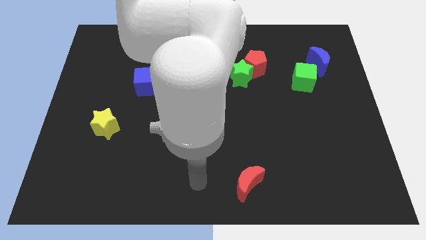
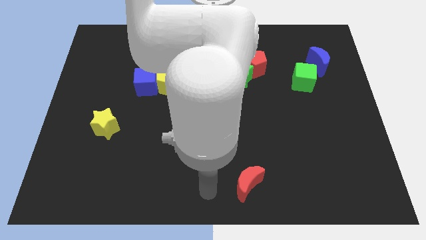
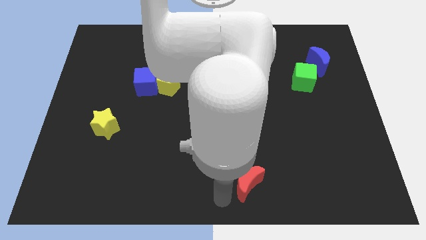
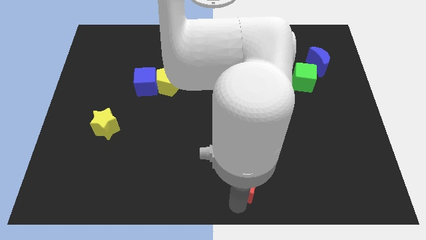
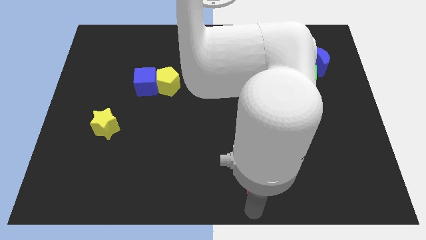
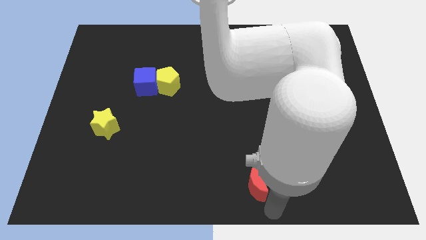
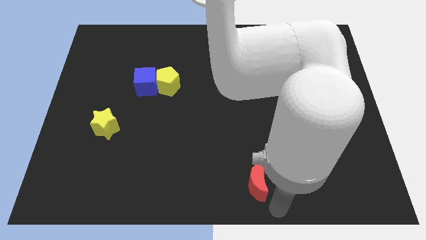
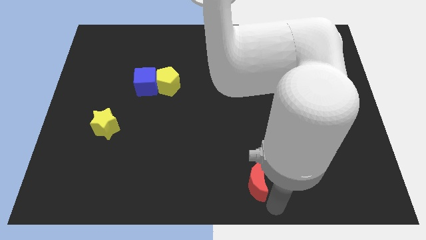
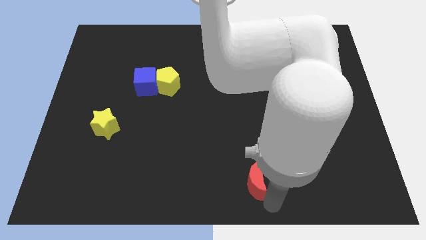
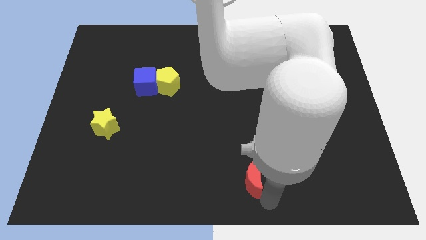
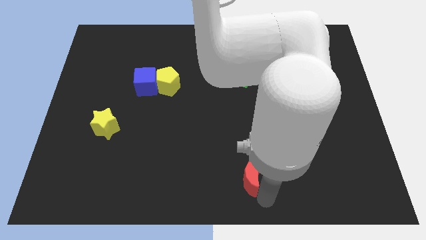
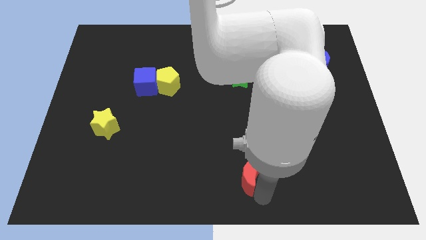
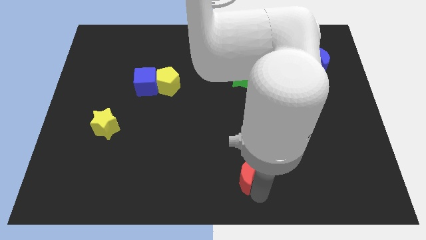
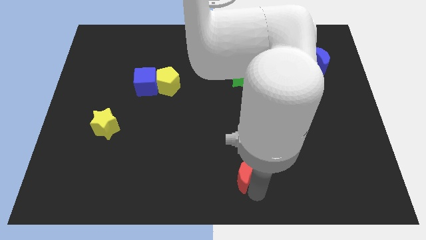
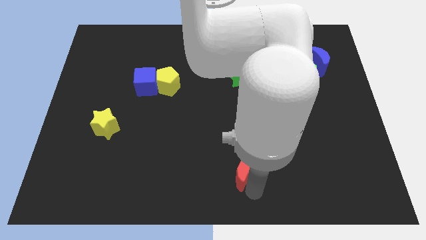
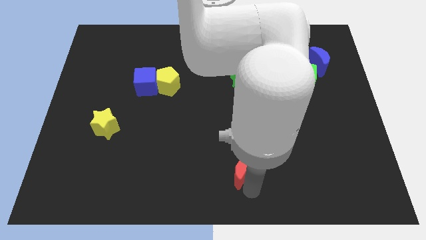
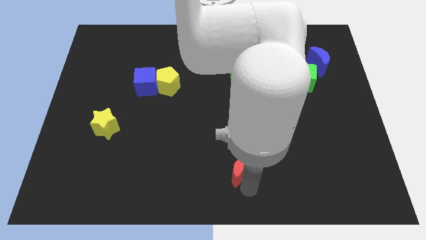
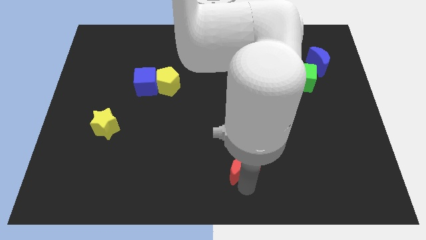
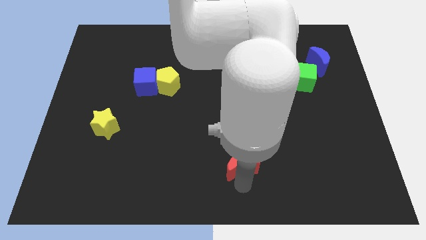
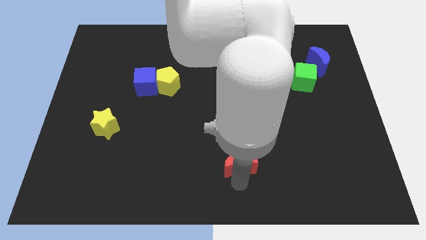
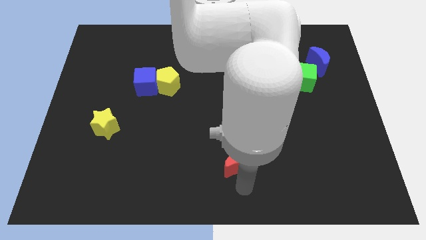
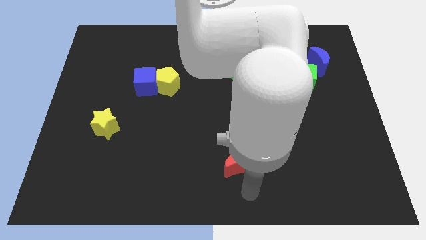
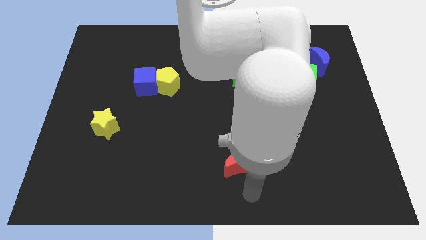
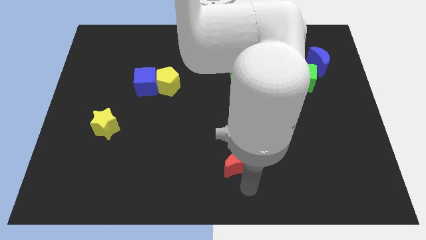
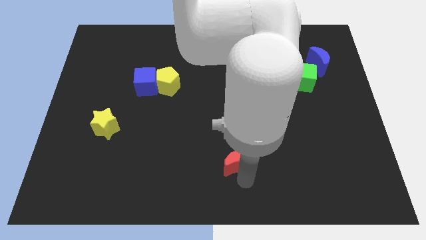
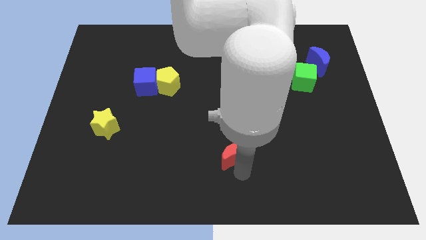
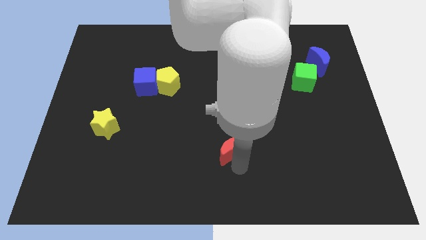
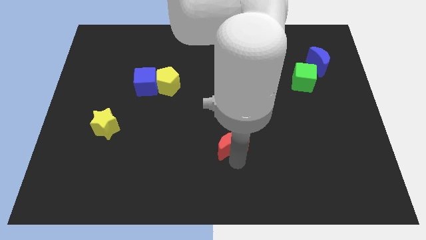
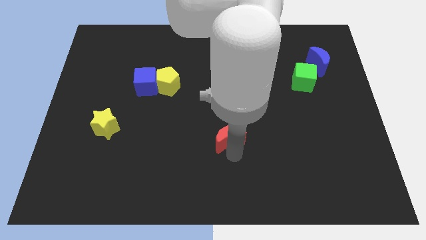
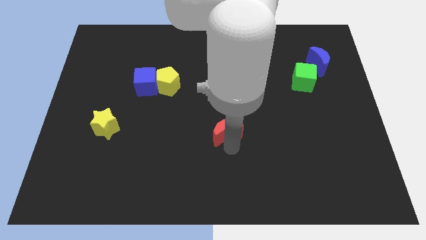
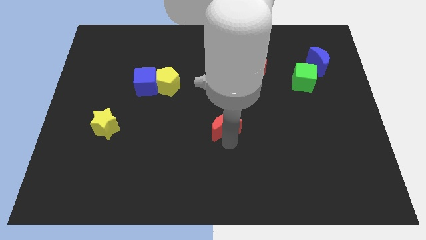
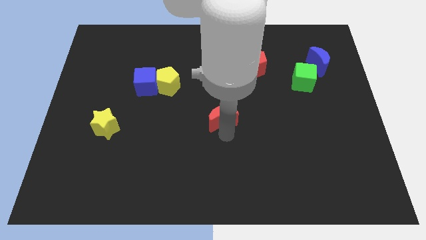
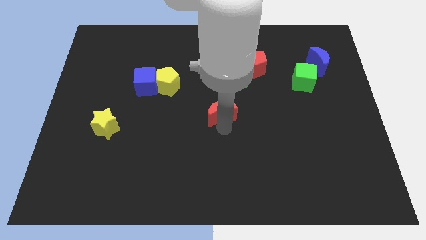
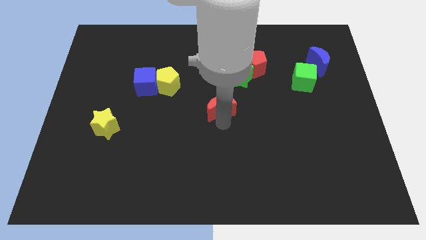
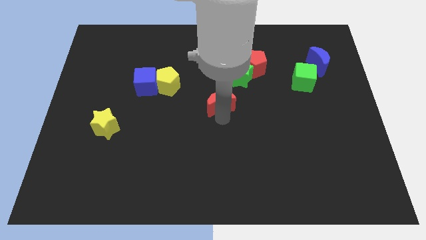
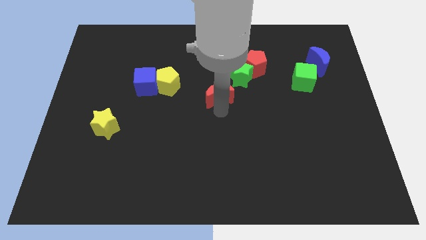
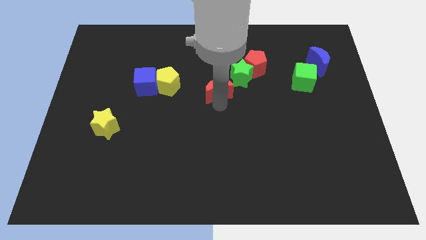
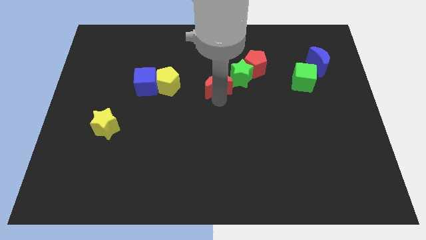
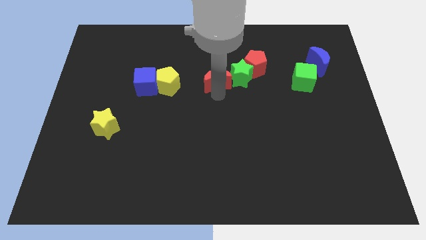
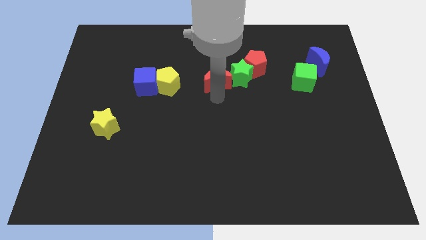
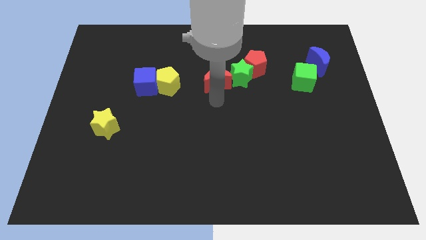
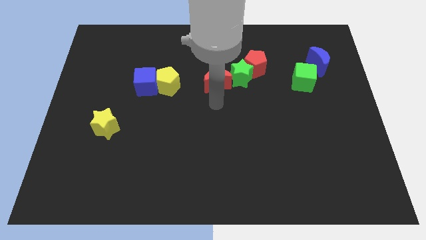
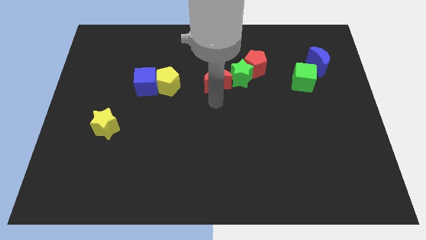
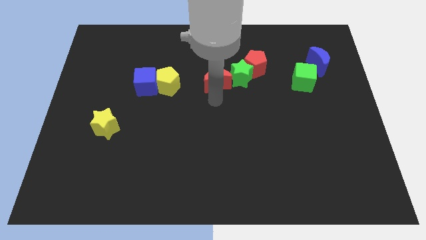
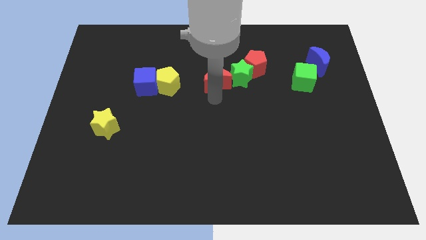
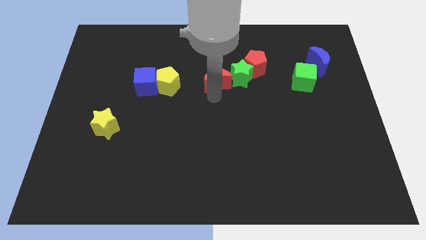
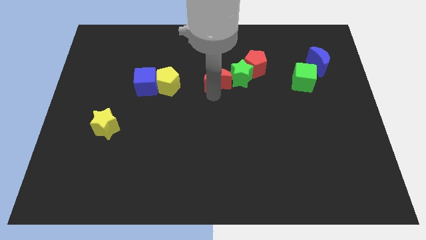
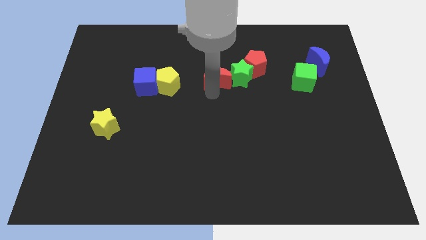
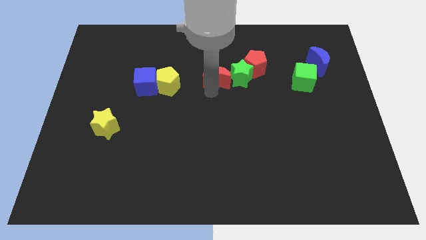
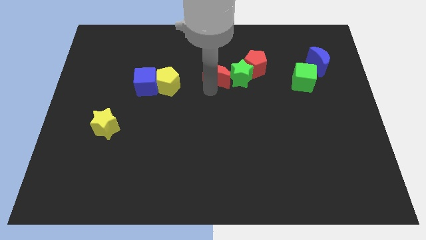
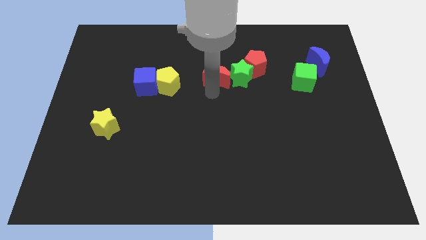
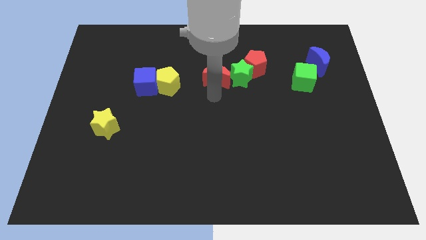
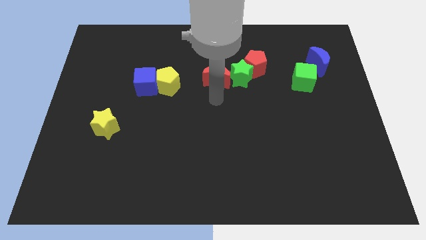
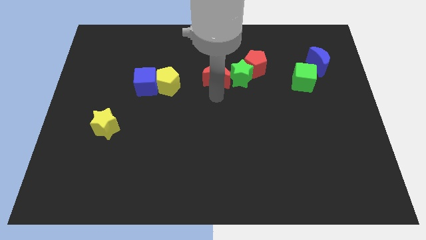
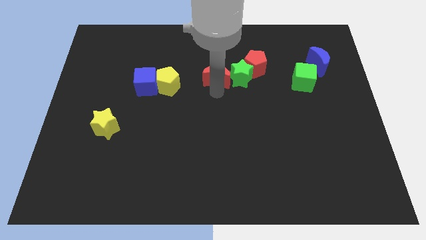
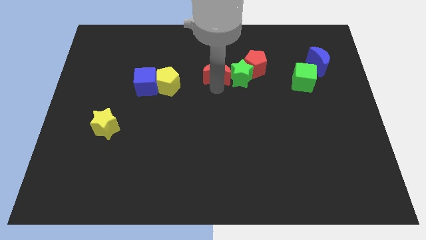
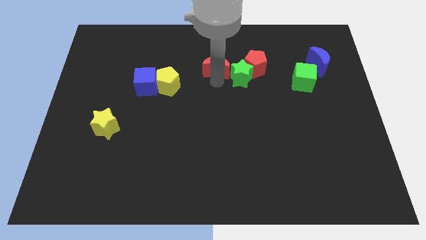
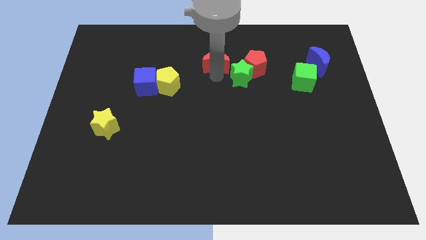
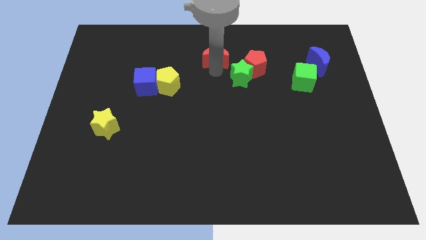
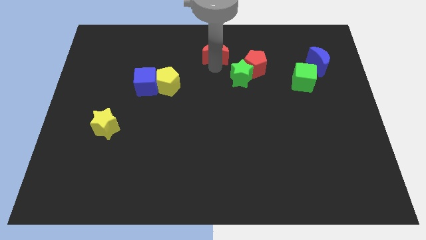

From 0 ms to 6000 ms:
put the red moon to the top side

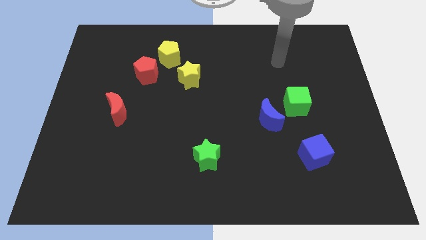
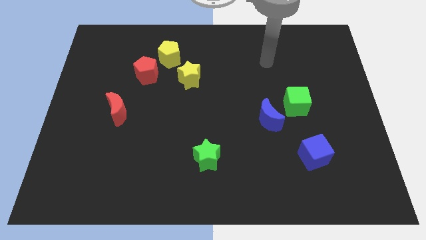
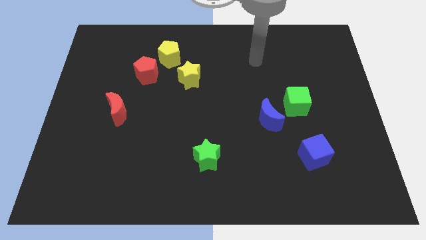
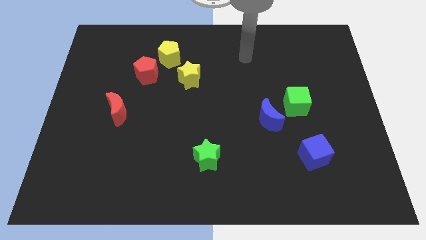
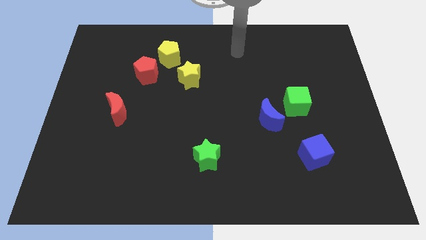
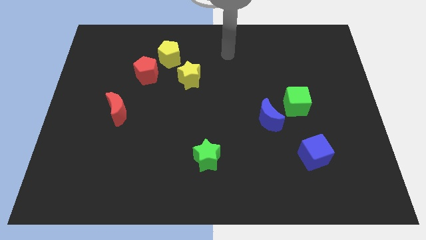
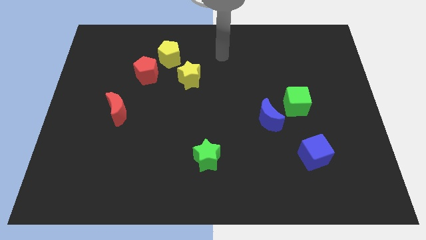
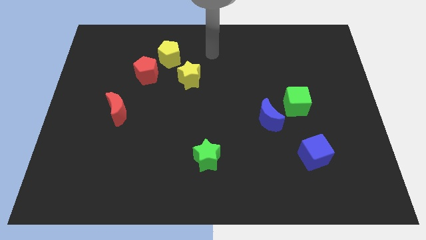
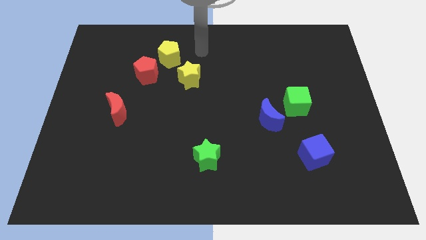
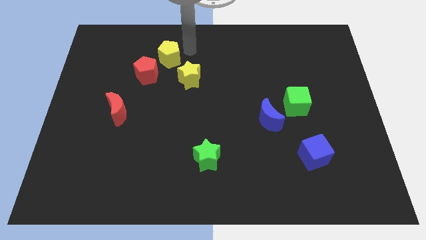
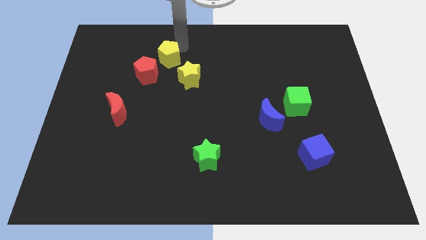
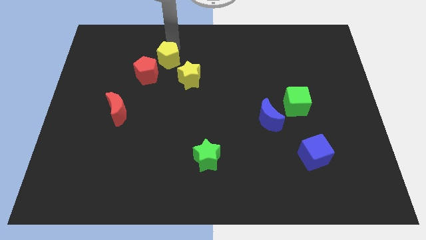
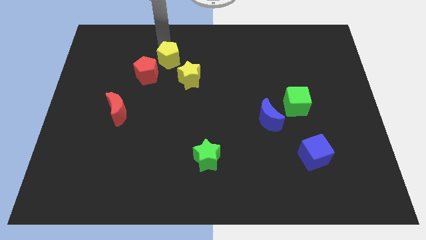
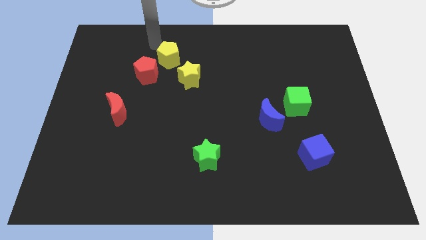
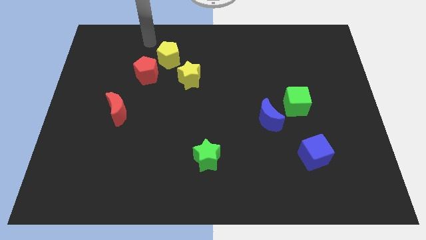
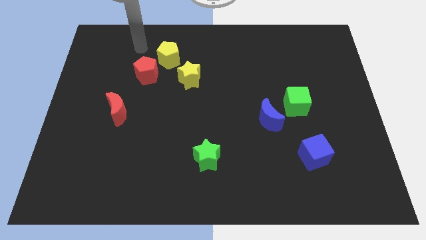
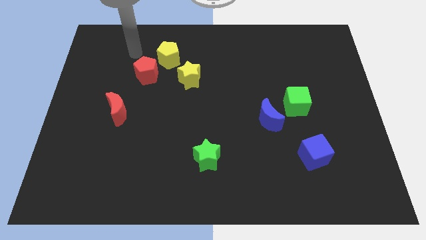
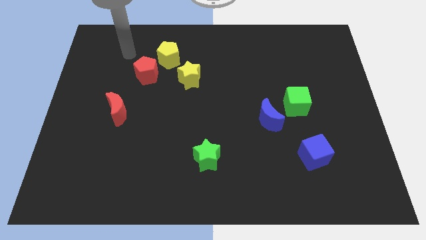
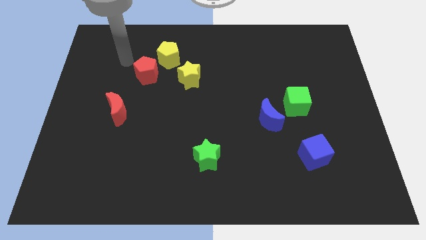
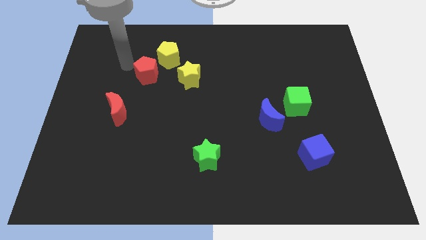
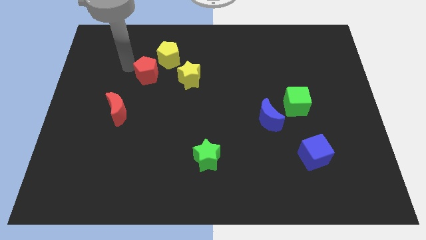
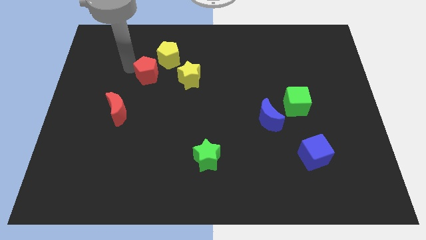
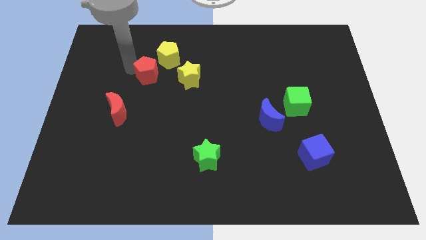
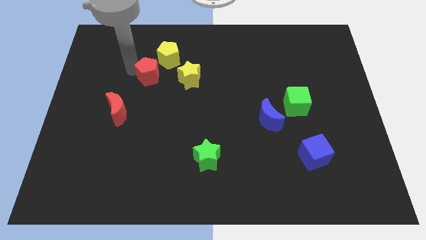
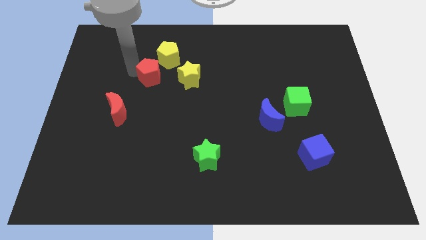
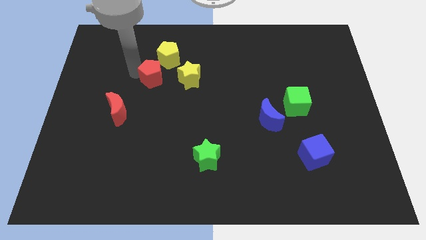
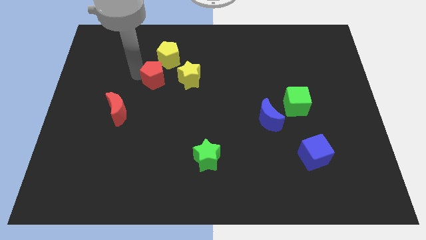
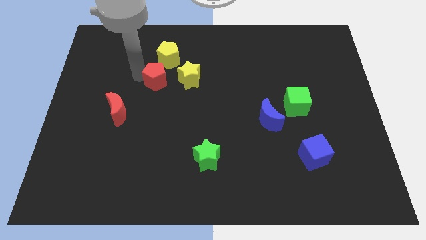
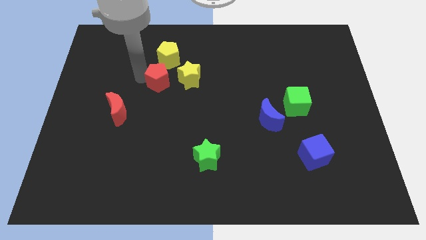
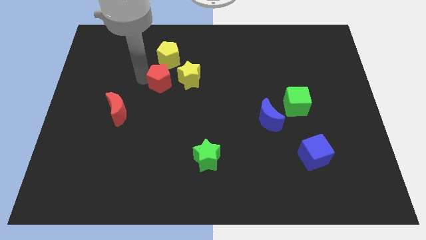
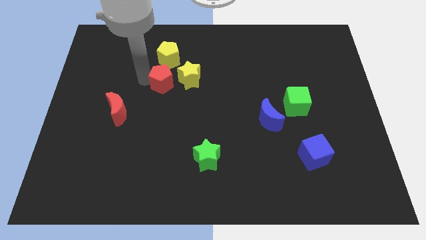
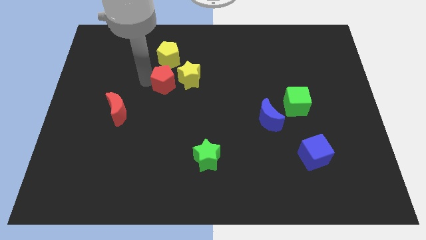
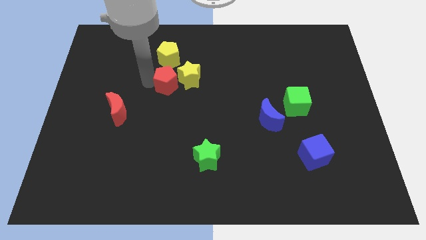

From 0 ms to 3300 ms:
push the red pentagon to the center
